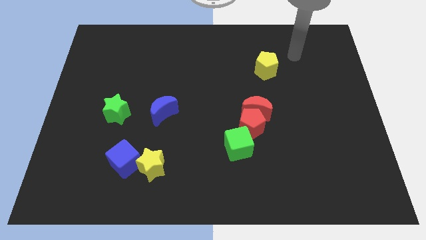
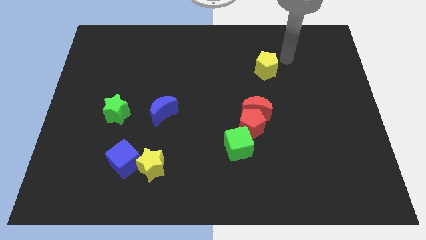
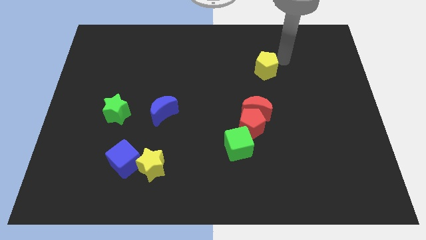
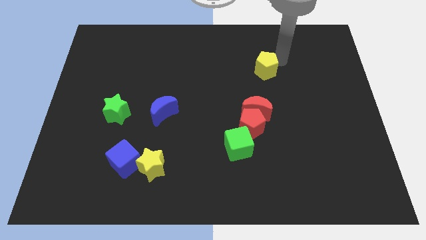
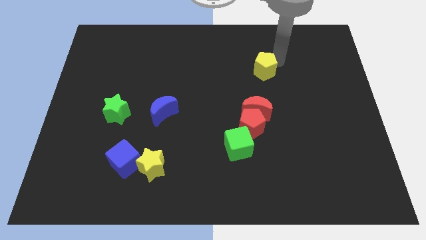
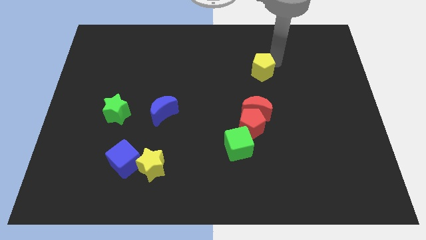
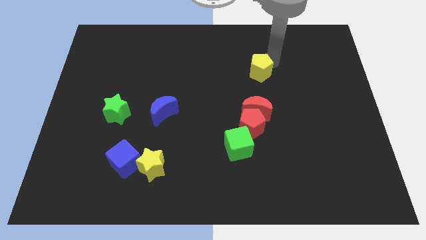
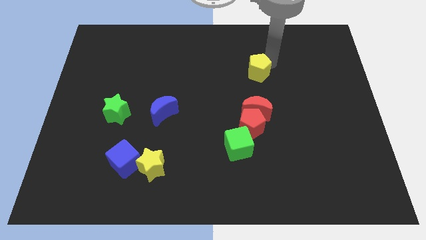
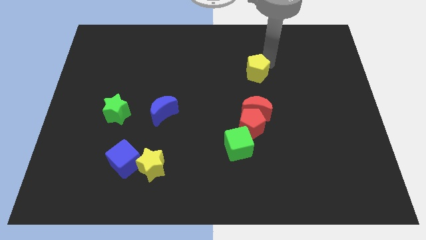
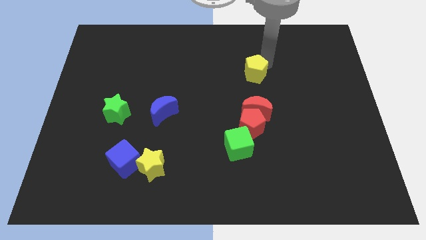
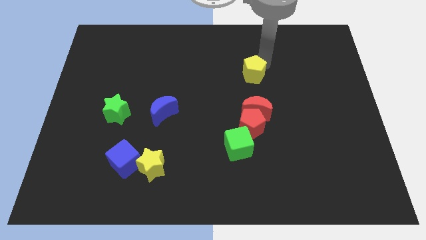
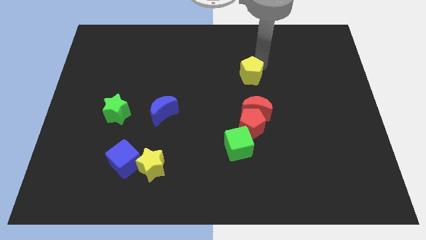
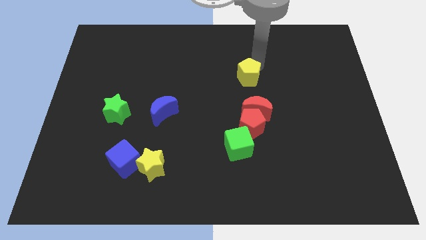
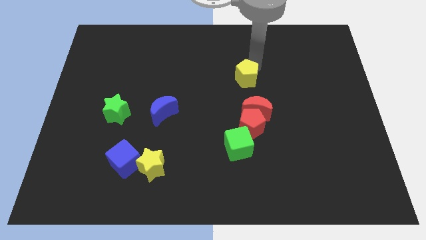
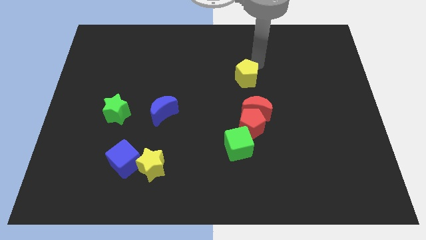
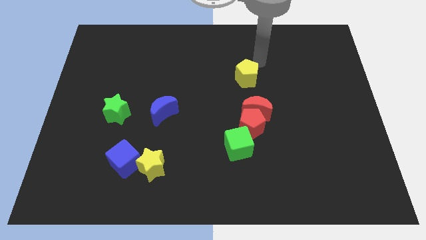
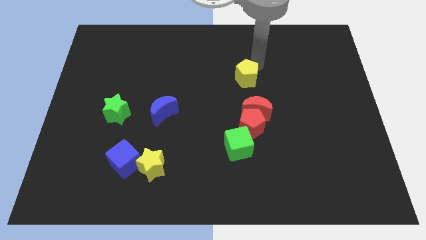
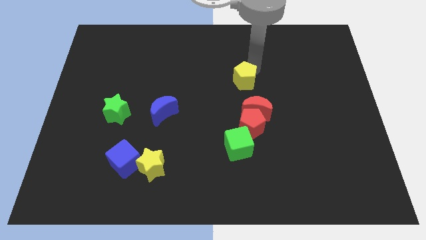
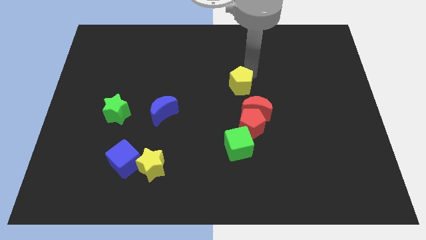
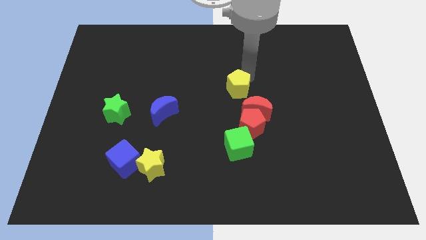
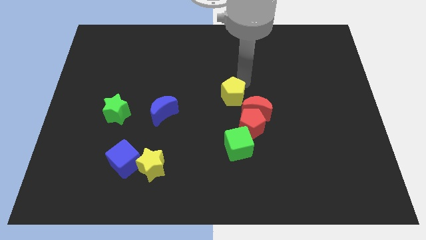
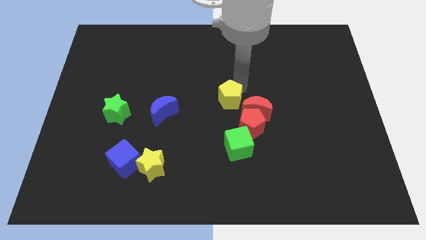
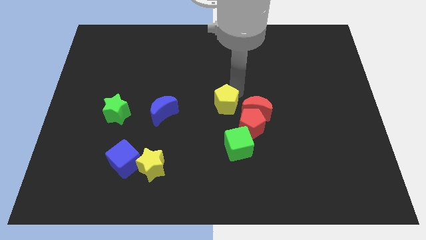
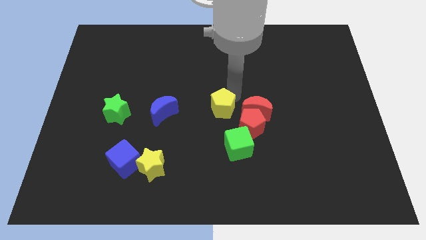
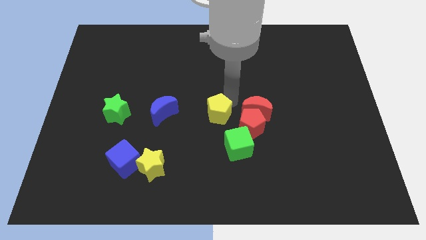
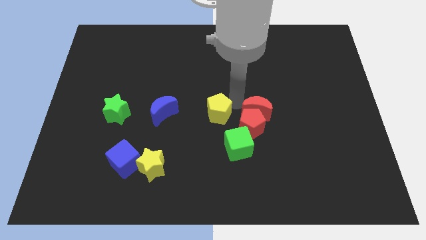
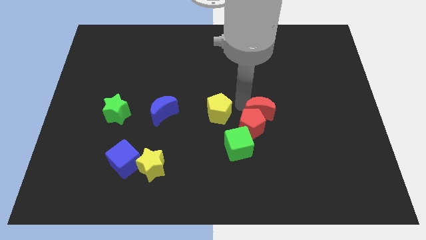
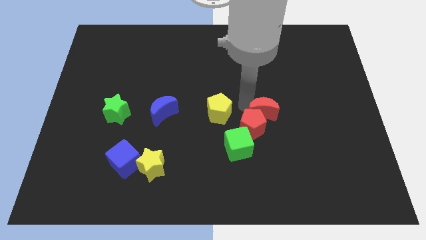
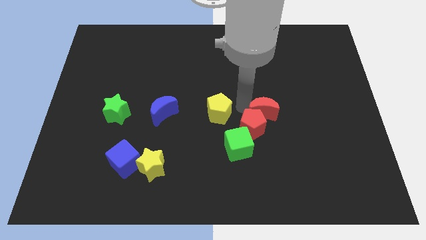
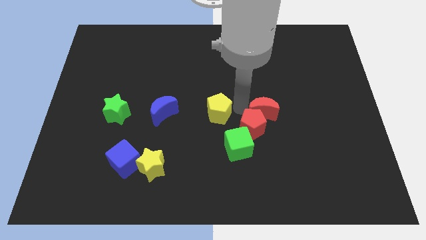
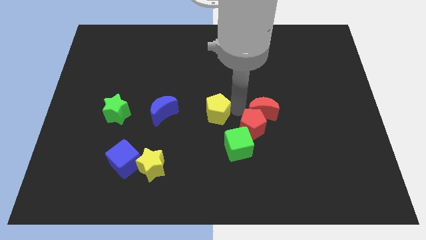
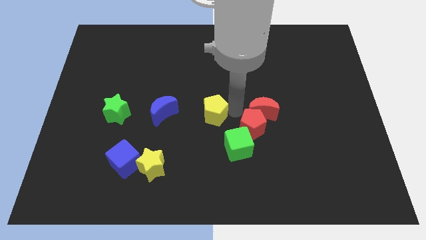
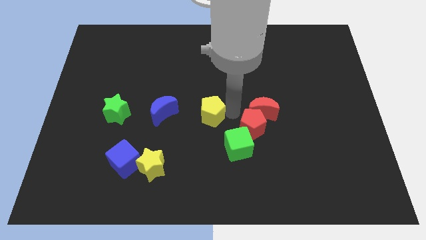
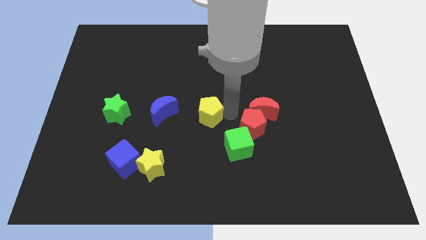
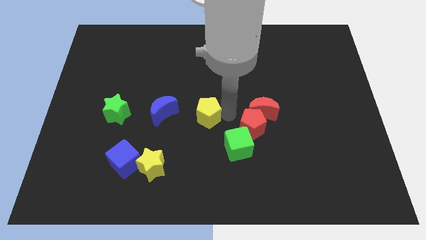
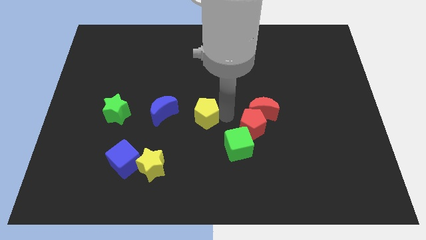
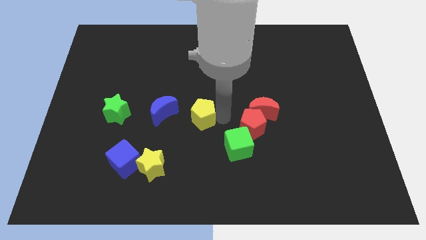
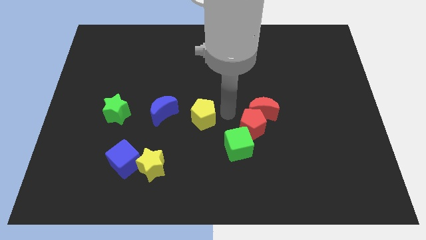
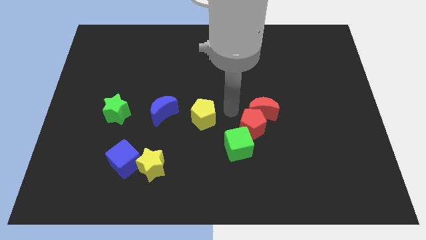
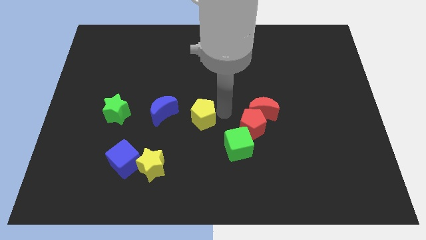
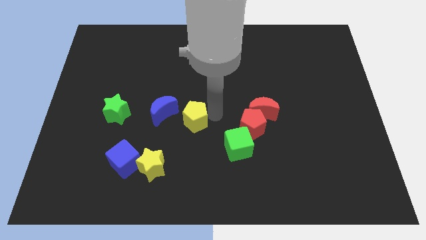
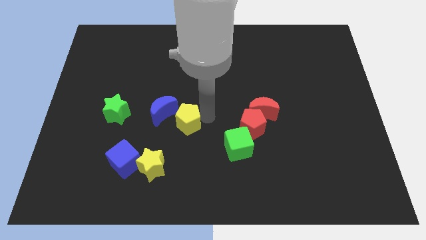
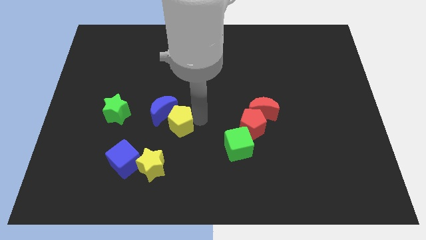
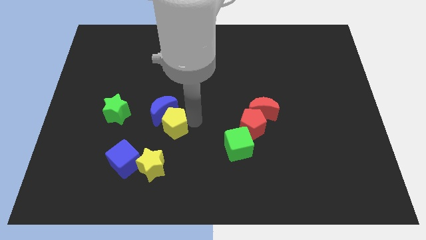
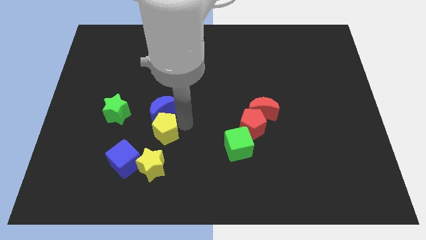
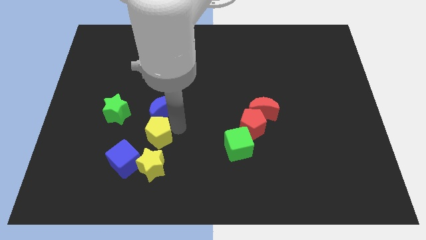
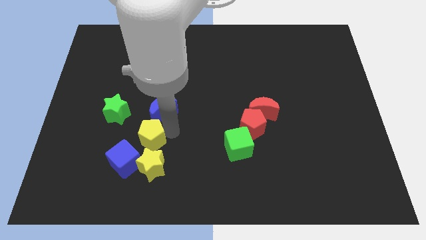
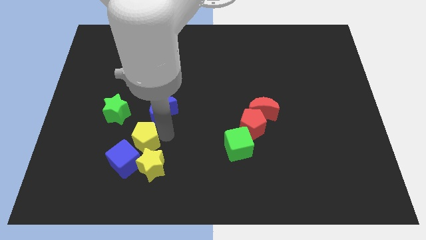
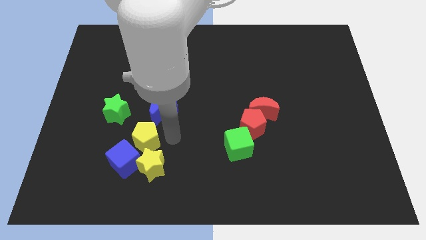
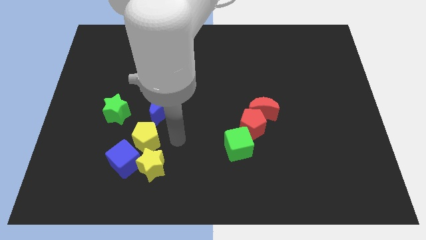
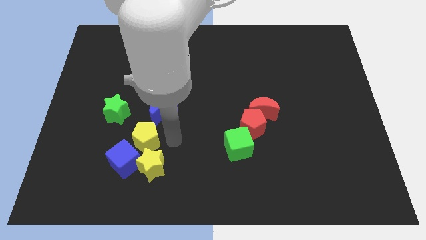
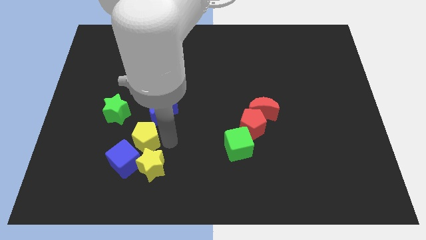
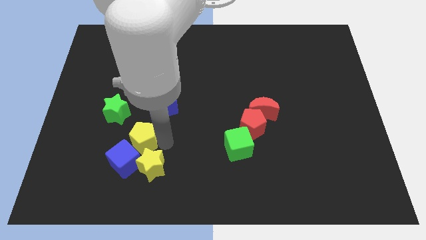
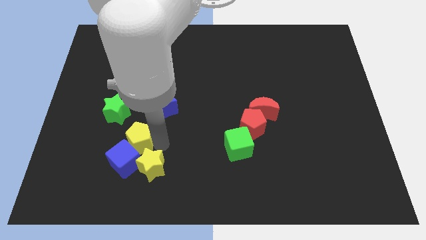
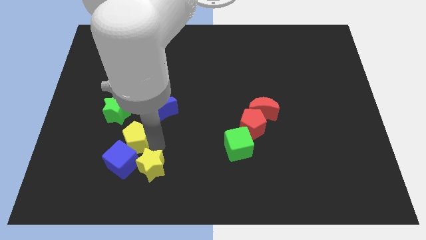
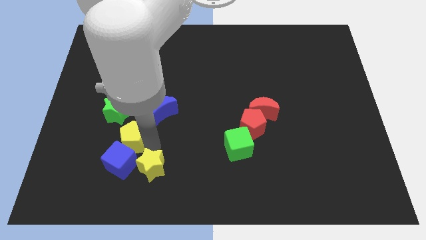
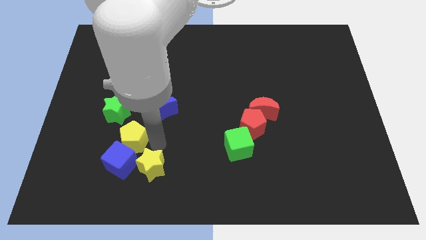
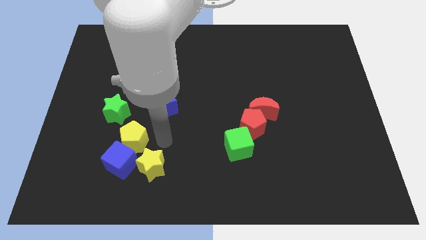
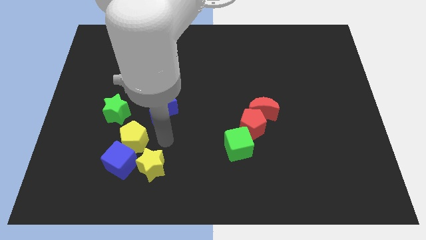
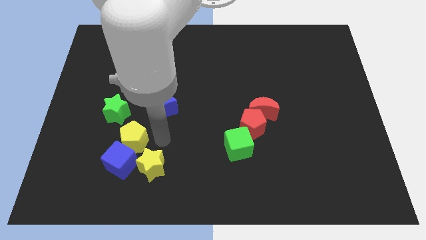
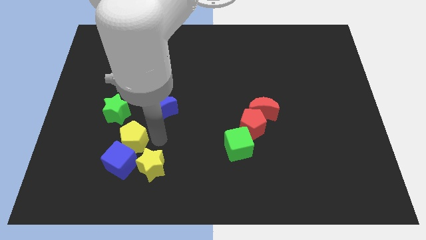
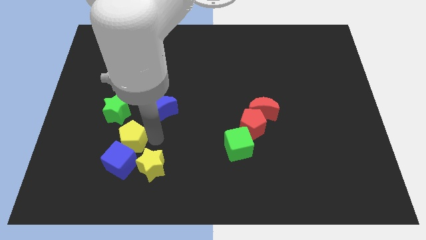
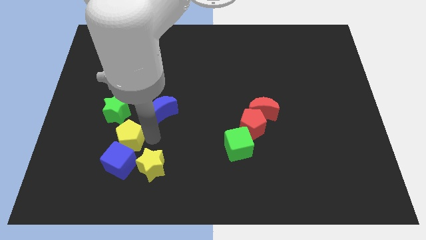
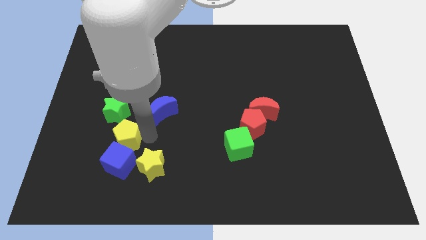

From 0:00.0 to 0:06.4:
push the yellow pentagon to the top left side of the blue cube

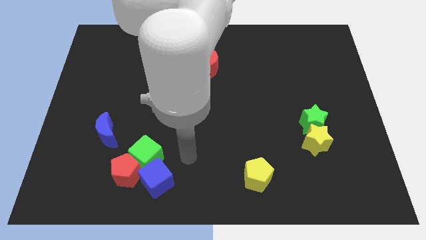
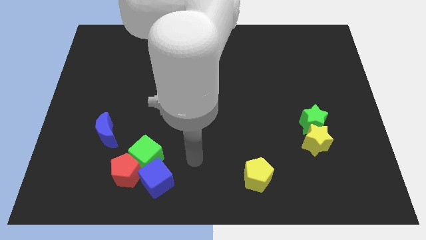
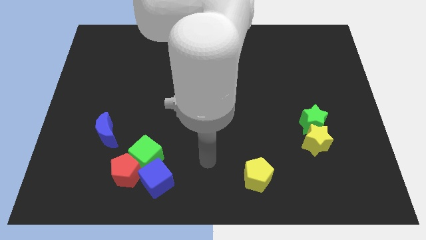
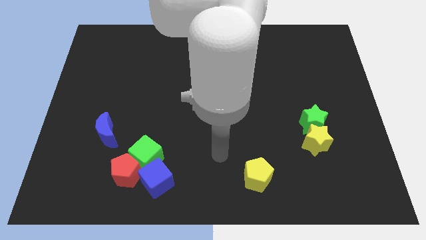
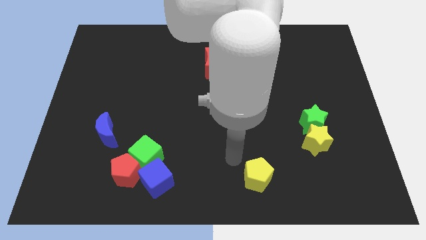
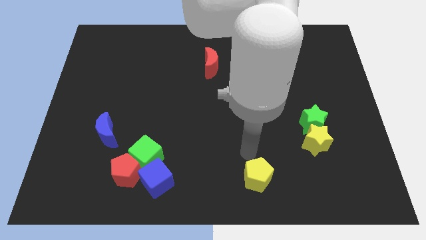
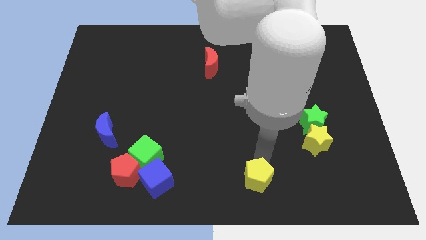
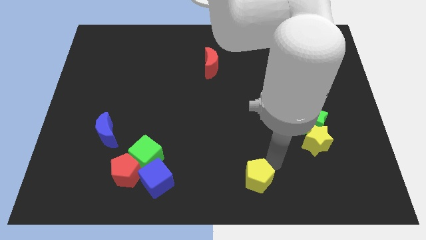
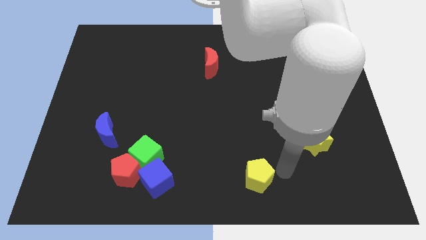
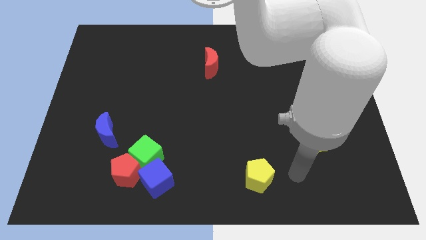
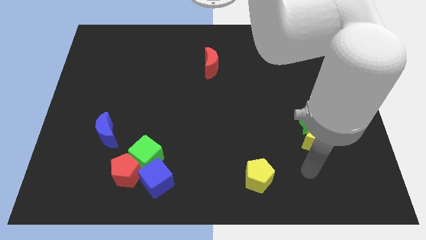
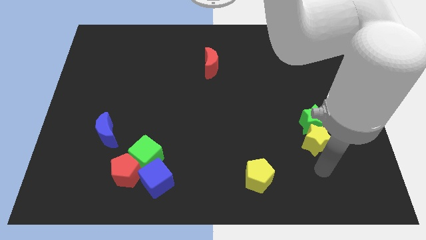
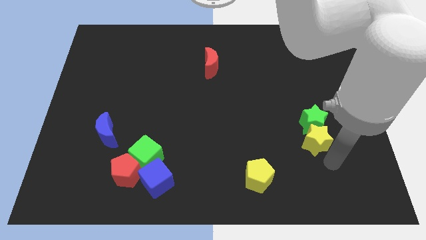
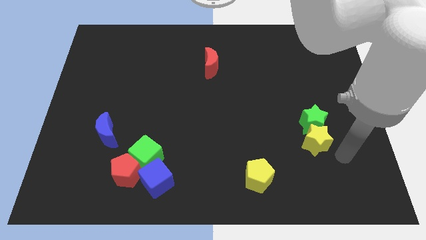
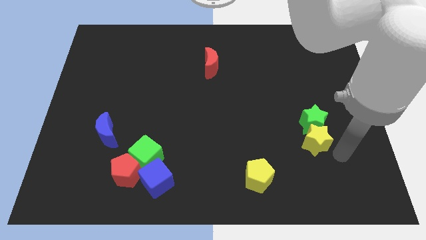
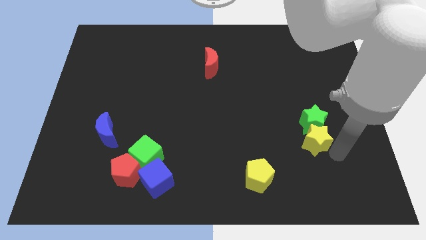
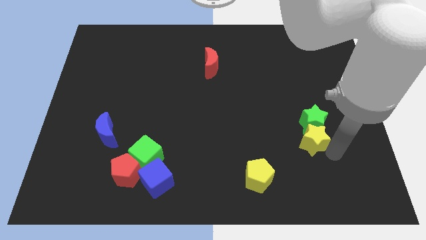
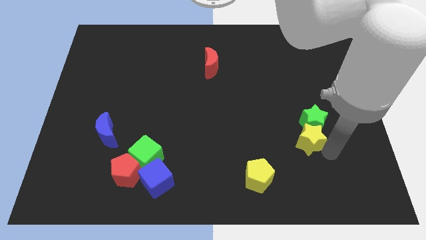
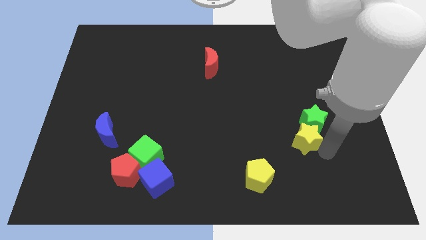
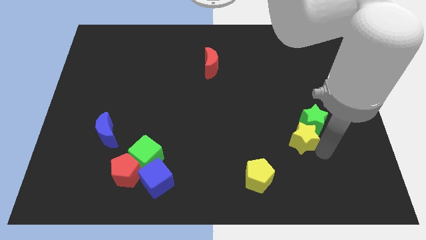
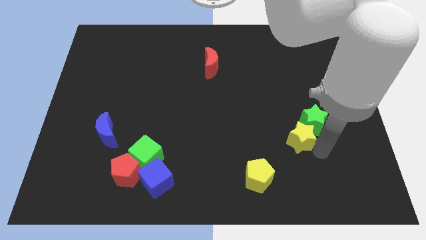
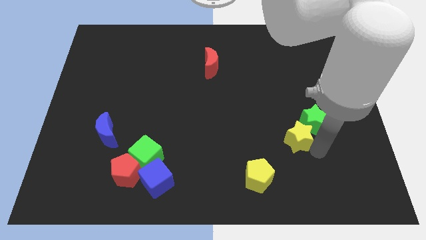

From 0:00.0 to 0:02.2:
slide the yellow star to the left of the green star
